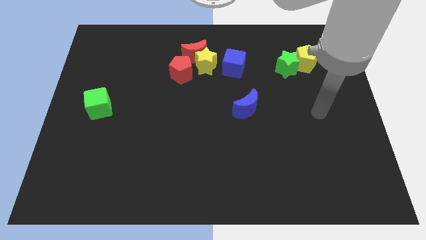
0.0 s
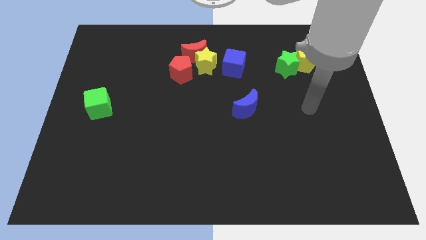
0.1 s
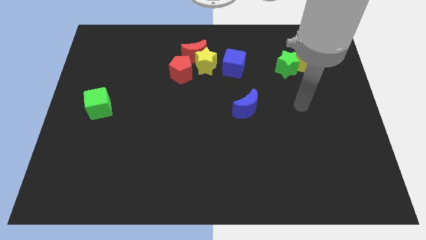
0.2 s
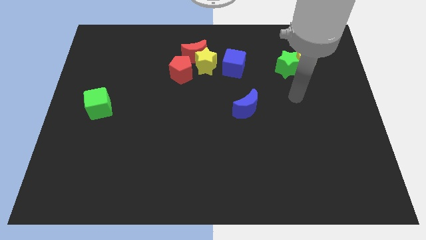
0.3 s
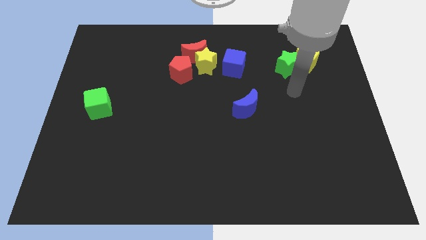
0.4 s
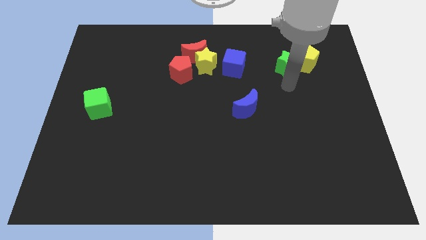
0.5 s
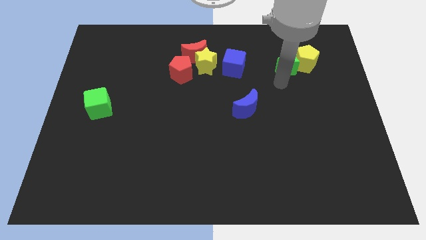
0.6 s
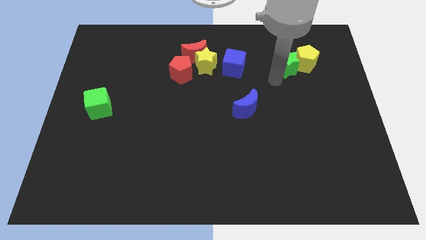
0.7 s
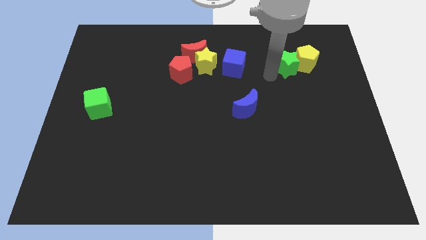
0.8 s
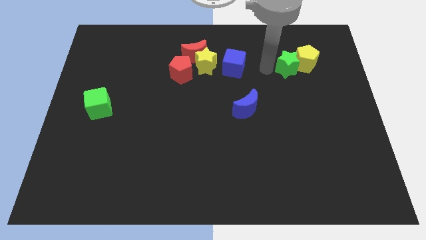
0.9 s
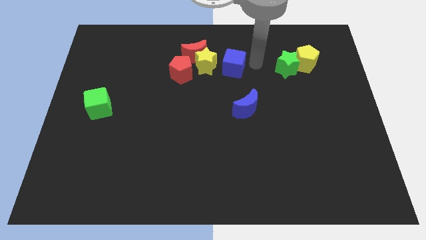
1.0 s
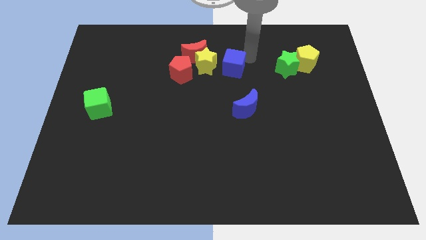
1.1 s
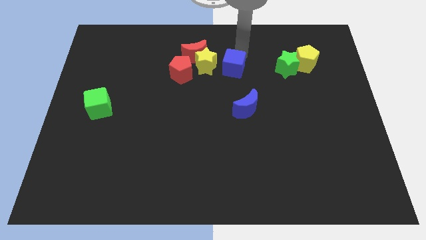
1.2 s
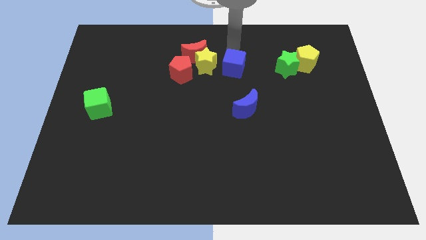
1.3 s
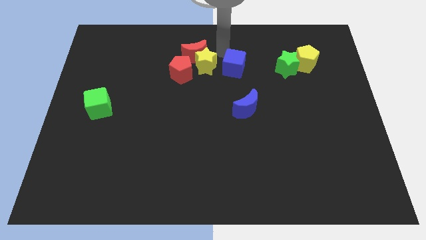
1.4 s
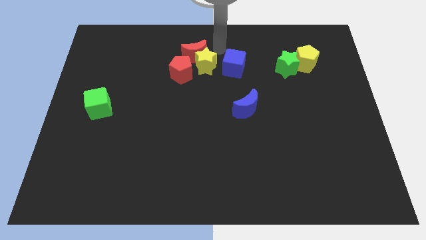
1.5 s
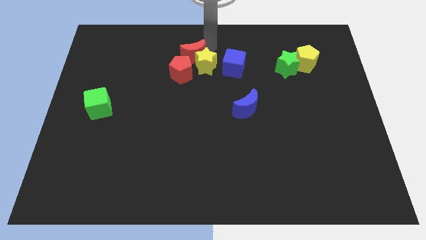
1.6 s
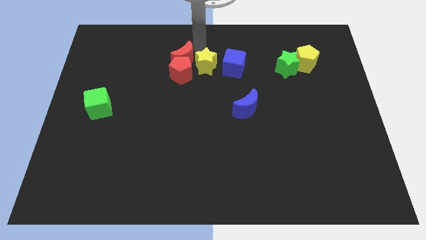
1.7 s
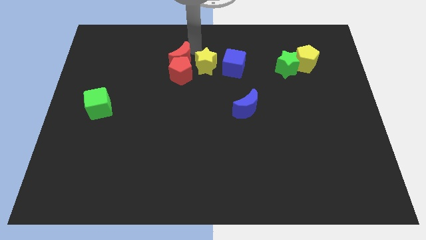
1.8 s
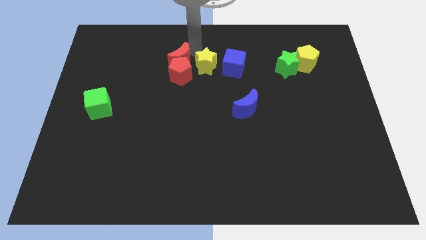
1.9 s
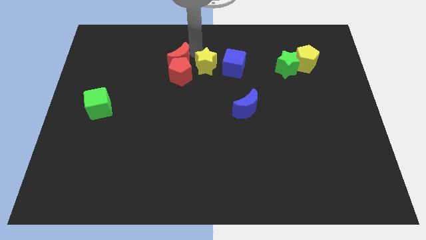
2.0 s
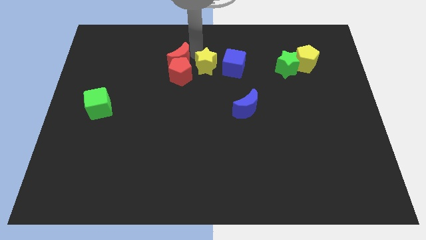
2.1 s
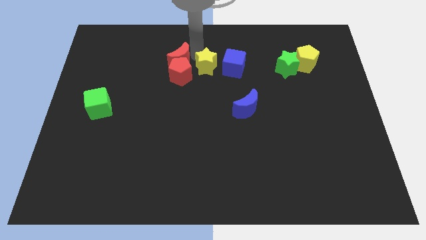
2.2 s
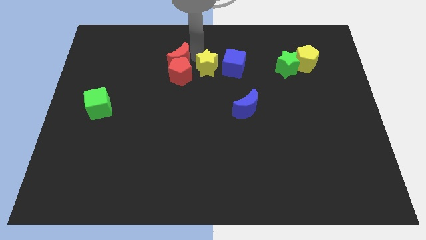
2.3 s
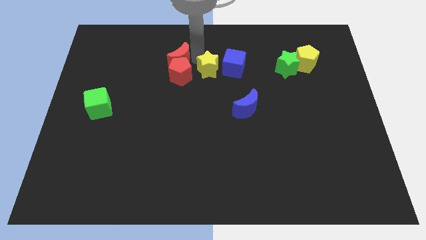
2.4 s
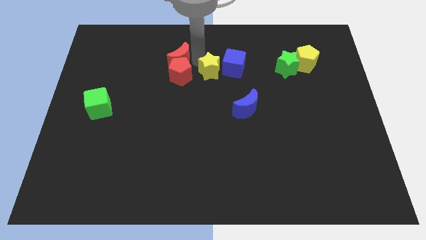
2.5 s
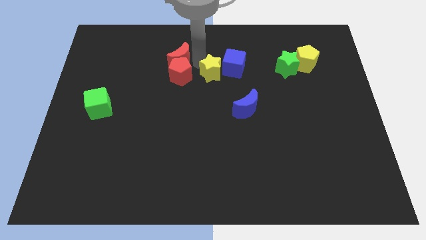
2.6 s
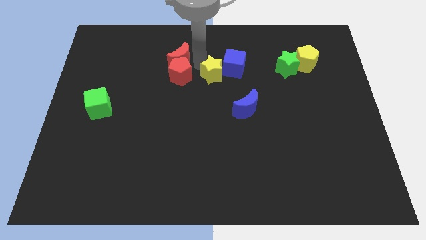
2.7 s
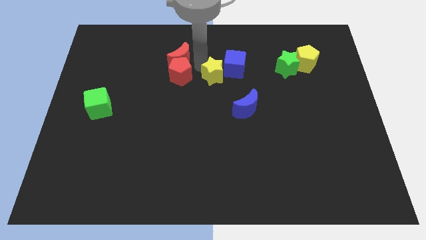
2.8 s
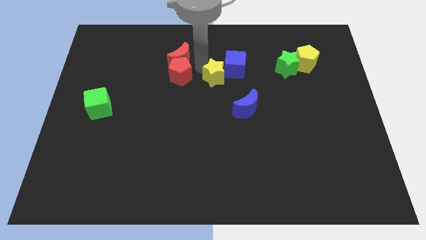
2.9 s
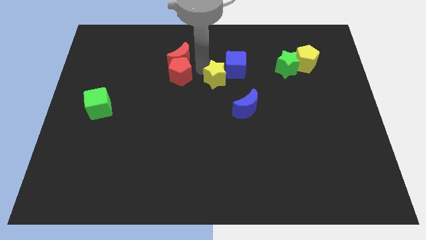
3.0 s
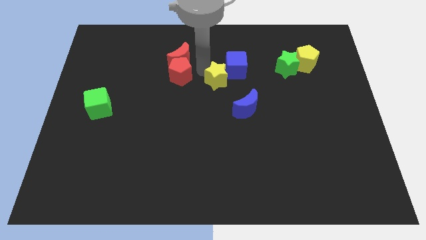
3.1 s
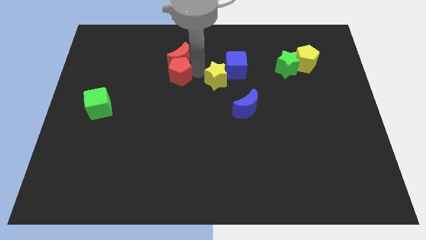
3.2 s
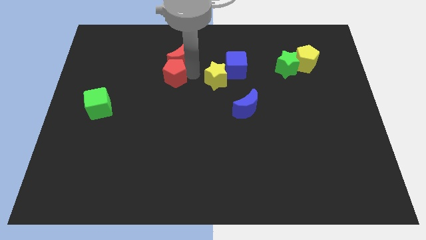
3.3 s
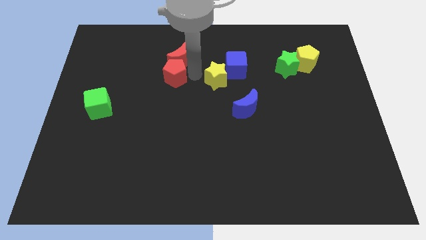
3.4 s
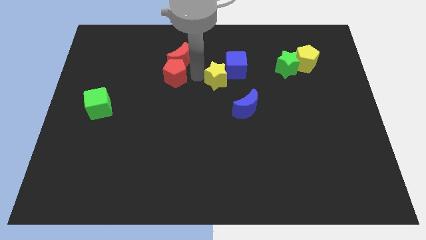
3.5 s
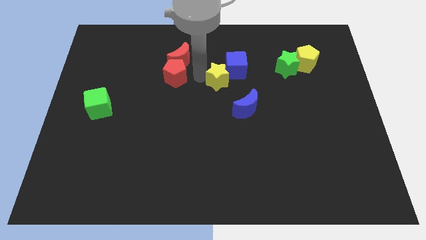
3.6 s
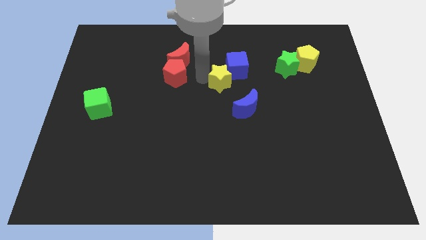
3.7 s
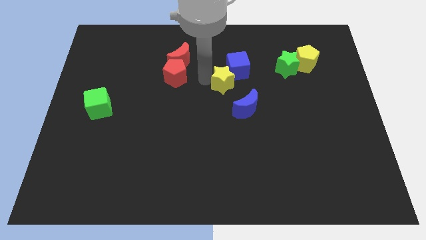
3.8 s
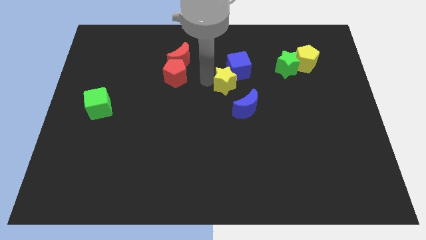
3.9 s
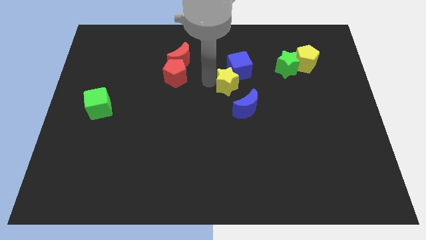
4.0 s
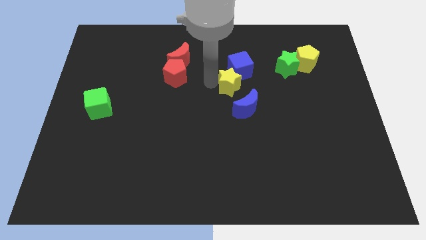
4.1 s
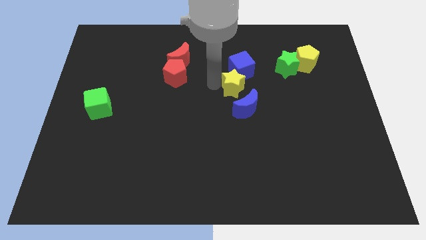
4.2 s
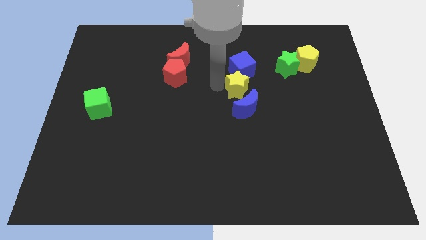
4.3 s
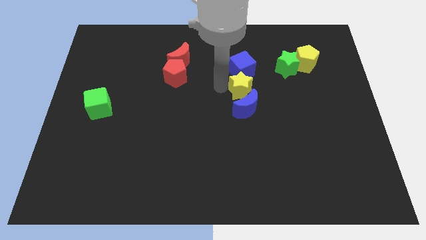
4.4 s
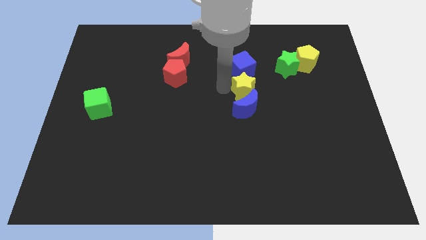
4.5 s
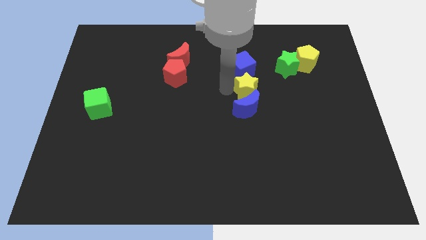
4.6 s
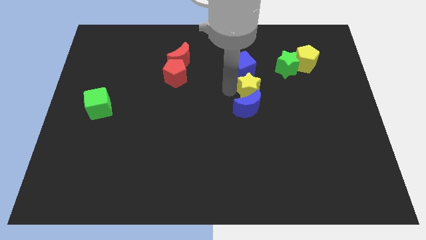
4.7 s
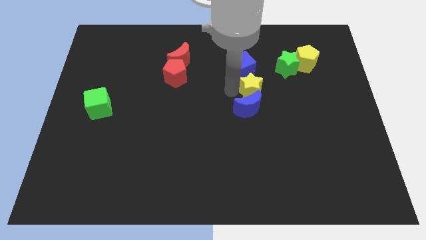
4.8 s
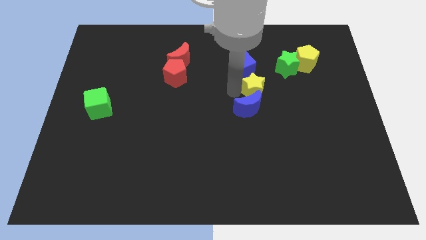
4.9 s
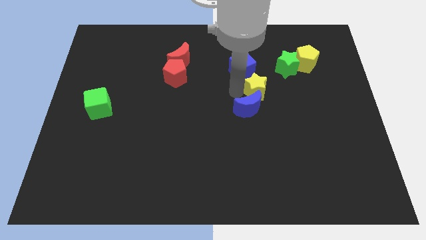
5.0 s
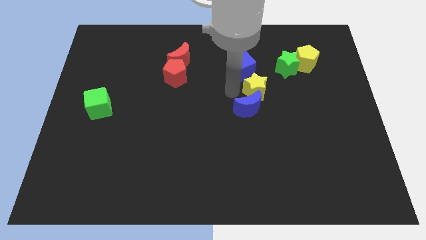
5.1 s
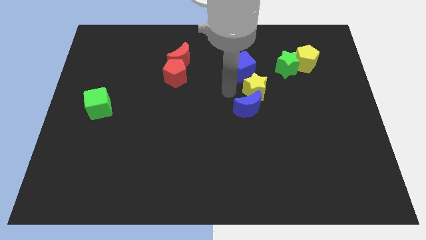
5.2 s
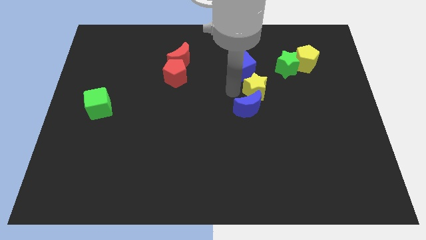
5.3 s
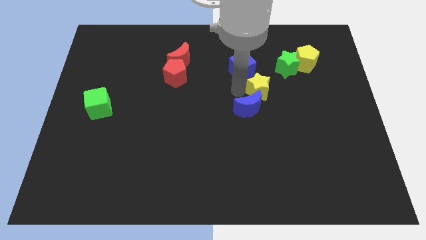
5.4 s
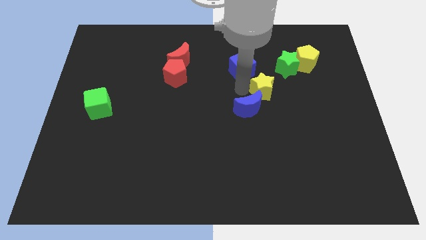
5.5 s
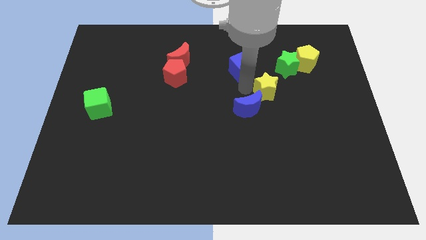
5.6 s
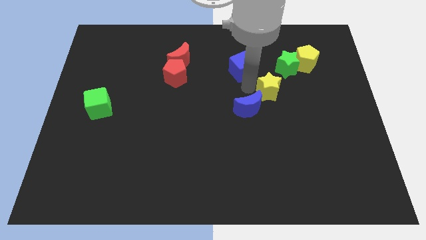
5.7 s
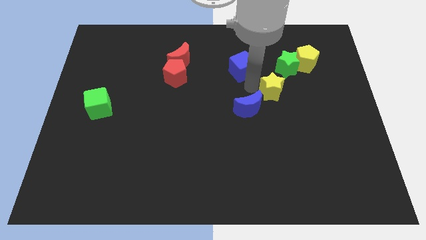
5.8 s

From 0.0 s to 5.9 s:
slide the yellow star to the bottom side of the green star

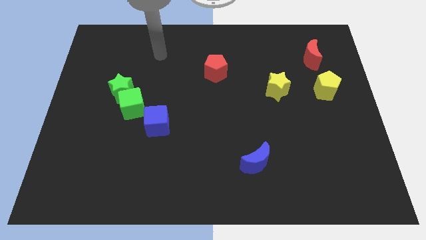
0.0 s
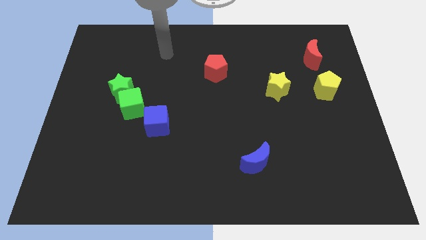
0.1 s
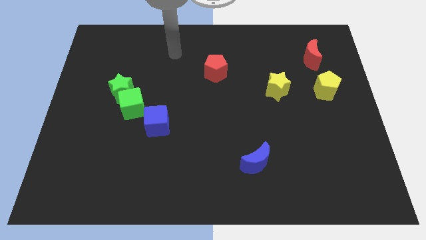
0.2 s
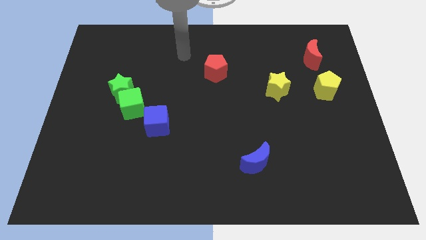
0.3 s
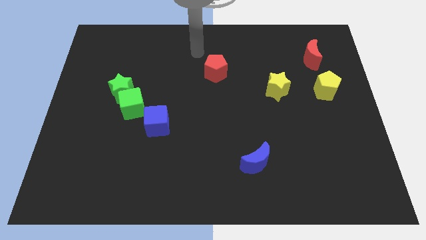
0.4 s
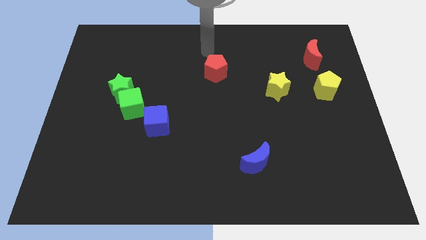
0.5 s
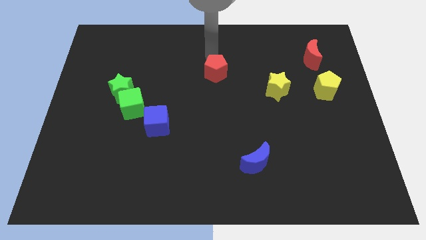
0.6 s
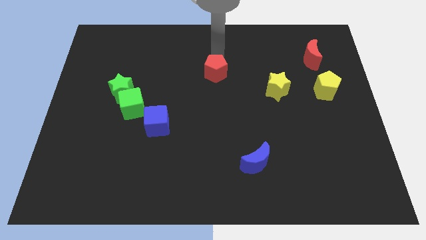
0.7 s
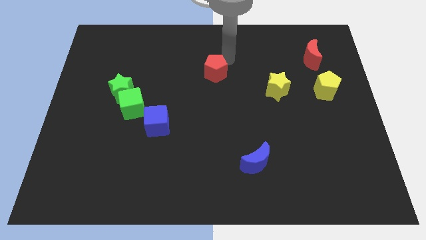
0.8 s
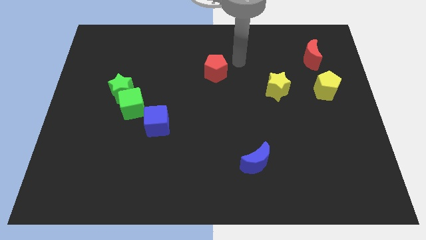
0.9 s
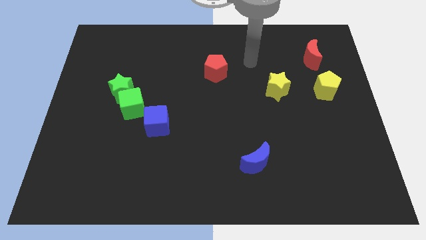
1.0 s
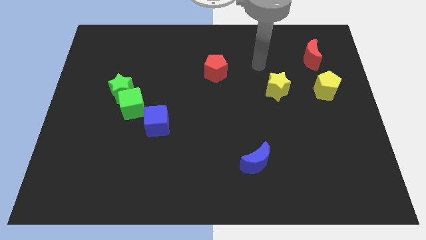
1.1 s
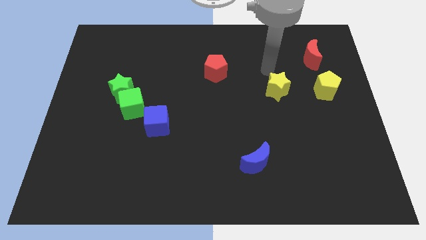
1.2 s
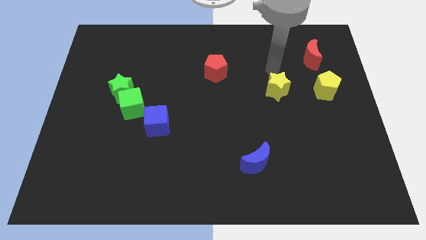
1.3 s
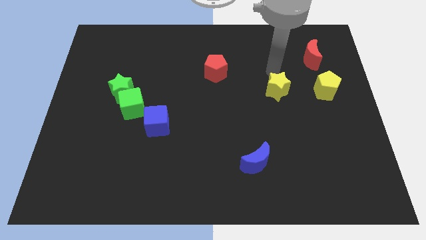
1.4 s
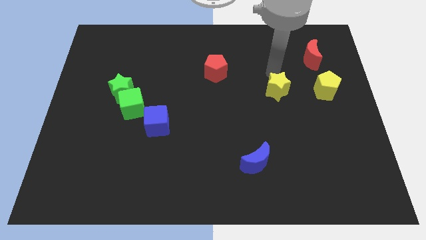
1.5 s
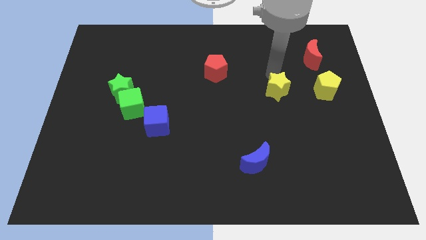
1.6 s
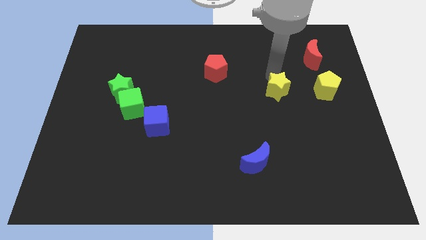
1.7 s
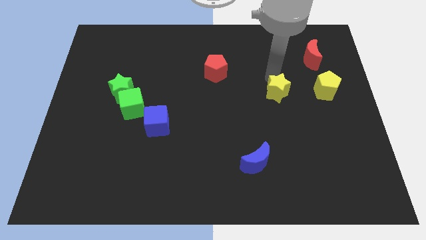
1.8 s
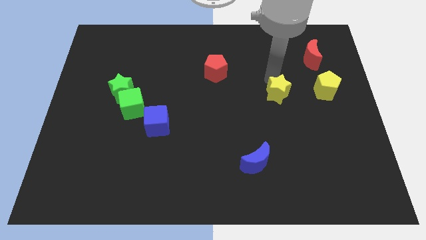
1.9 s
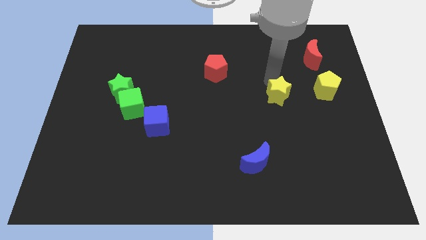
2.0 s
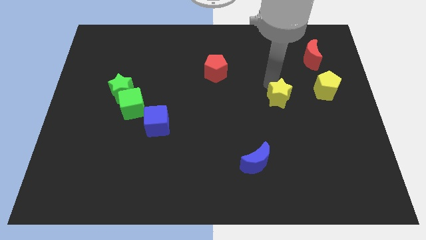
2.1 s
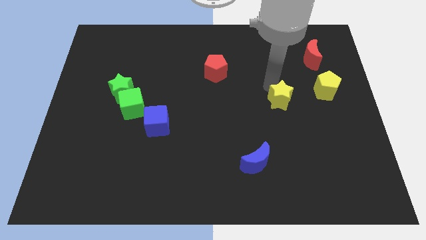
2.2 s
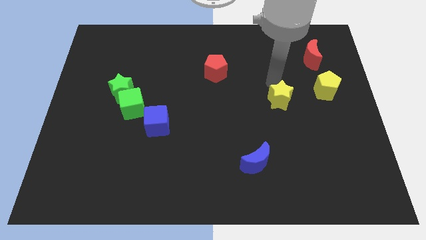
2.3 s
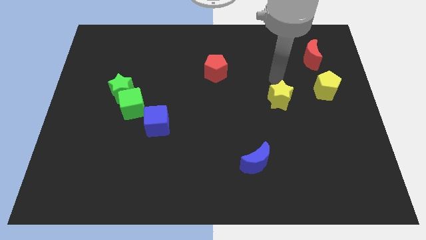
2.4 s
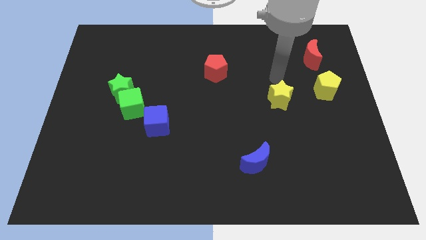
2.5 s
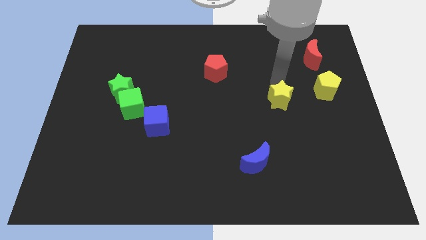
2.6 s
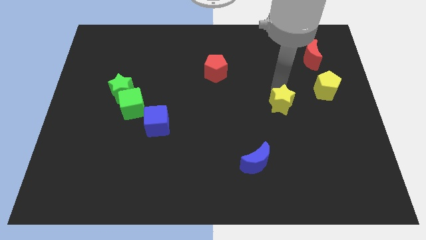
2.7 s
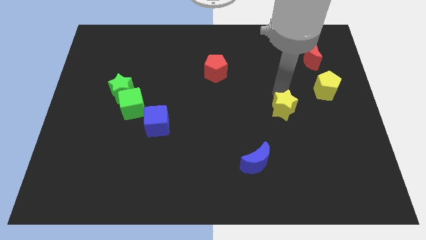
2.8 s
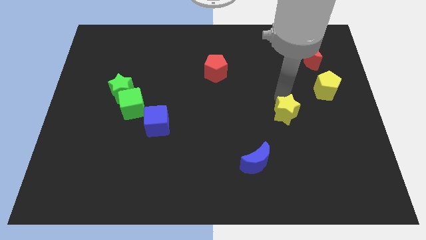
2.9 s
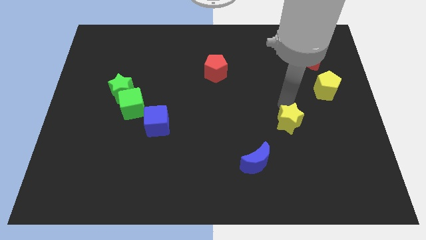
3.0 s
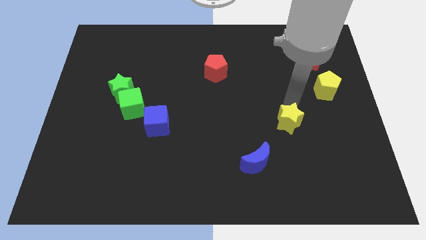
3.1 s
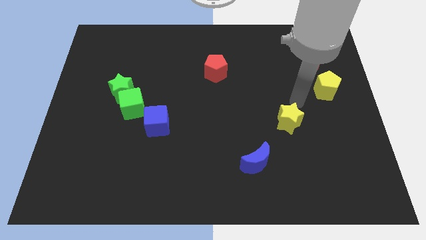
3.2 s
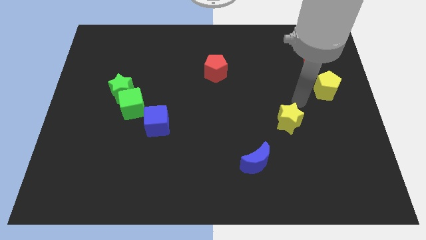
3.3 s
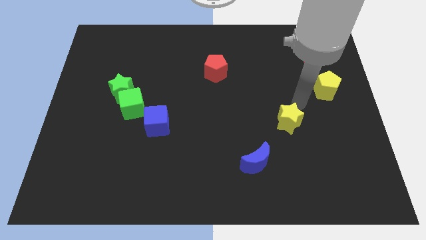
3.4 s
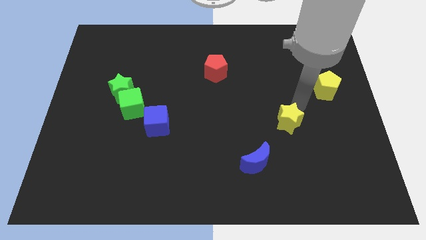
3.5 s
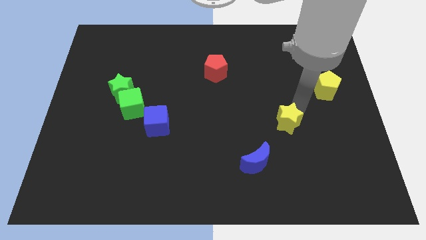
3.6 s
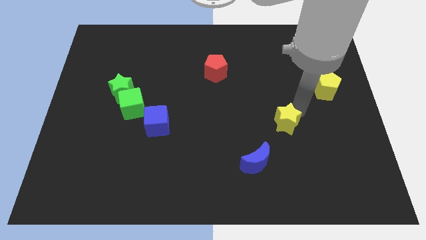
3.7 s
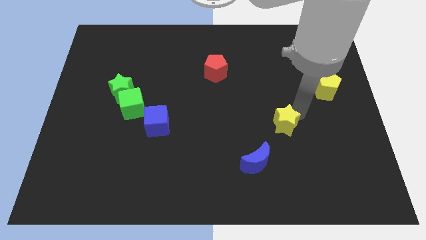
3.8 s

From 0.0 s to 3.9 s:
push the yellow star to the top right of the blue moon
